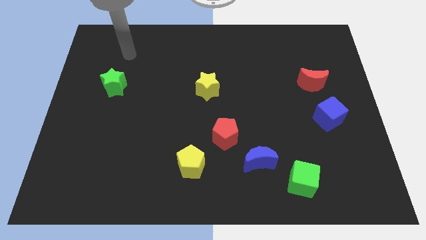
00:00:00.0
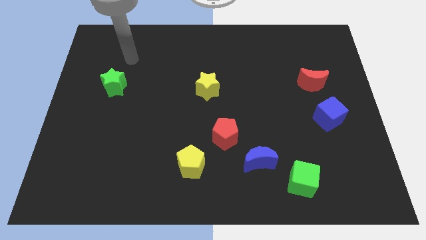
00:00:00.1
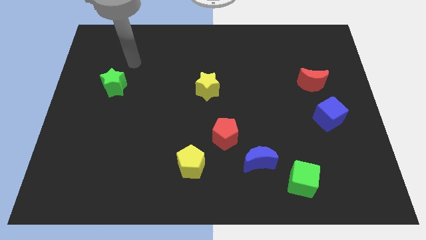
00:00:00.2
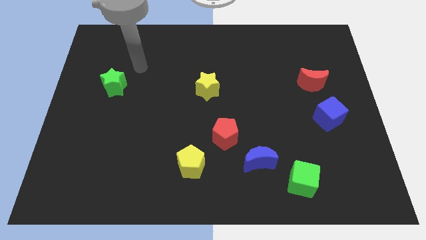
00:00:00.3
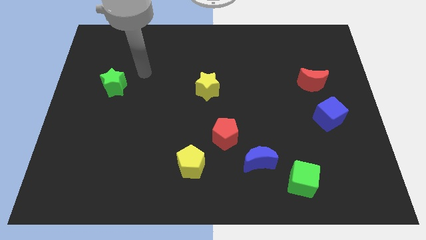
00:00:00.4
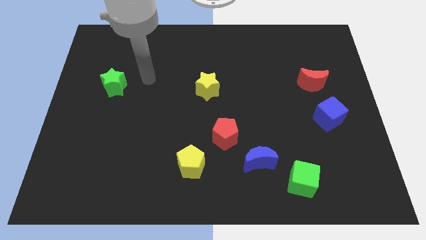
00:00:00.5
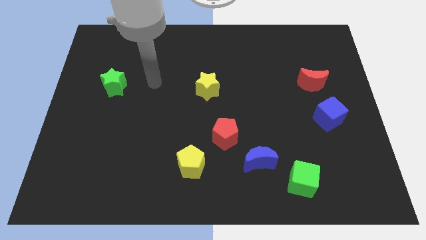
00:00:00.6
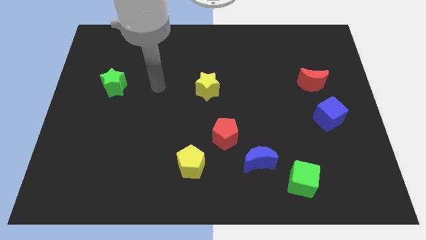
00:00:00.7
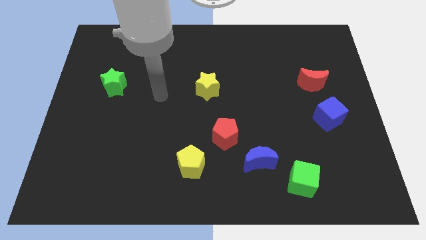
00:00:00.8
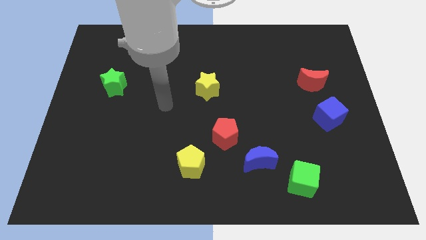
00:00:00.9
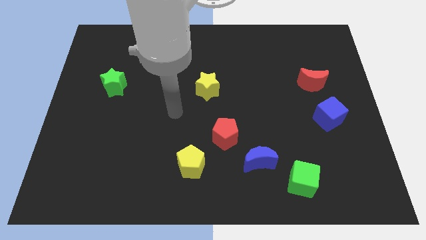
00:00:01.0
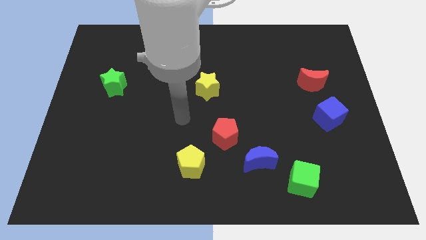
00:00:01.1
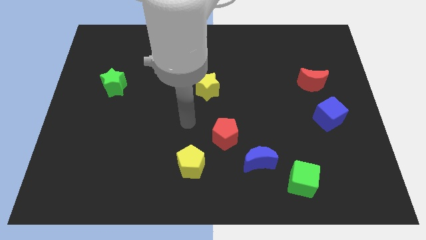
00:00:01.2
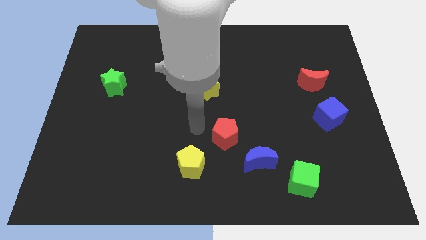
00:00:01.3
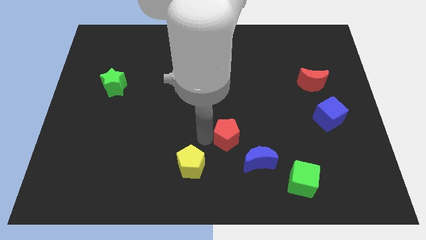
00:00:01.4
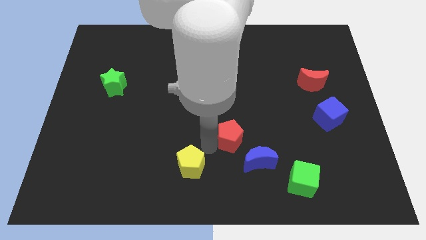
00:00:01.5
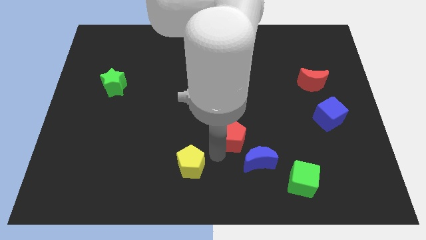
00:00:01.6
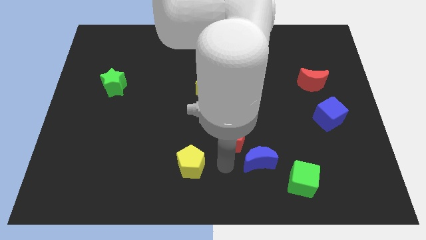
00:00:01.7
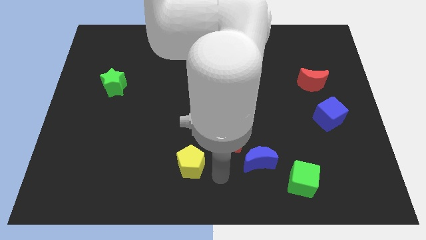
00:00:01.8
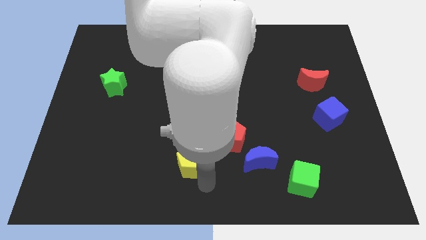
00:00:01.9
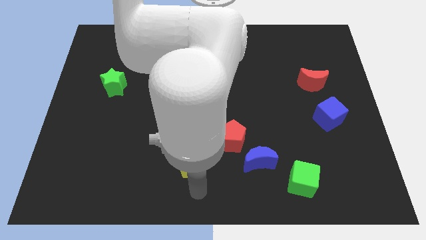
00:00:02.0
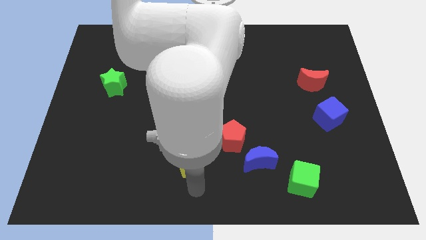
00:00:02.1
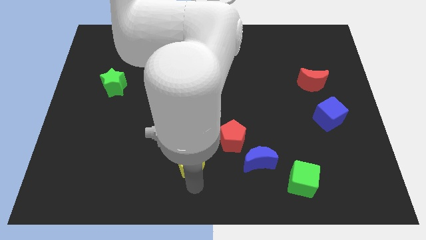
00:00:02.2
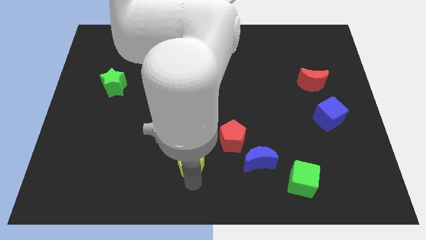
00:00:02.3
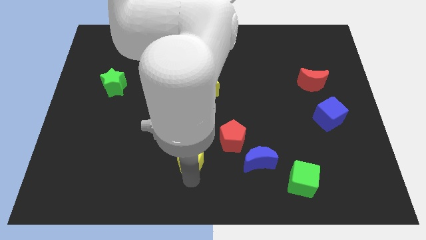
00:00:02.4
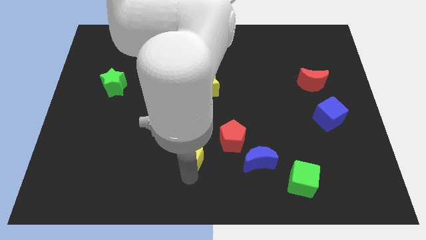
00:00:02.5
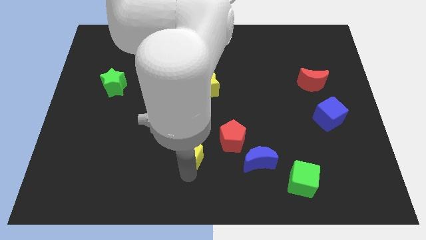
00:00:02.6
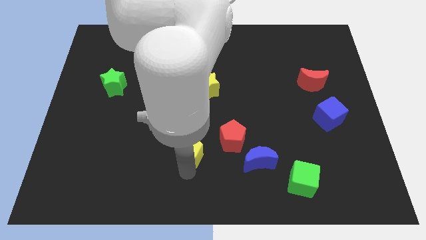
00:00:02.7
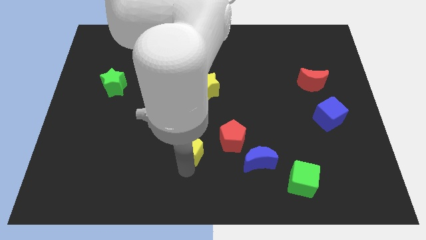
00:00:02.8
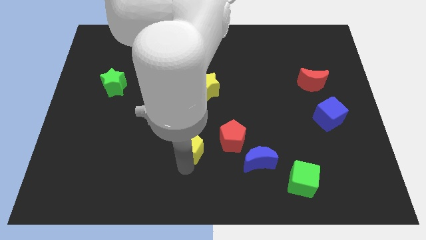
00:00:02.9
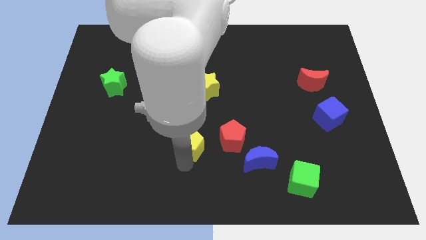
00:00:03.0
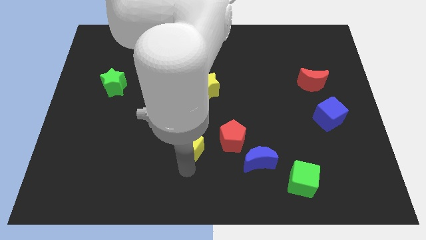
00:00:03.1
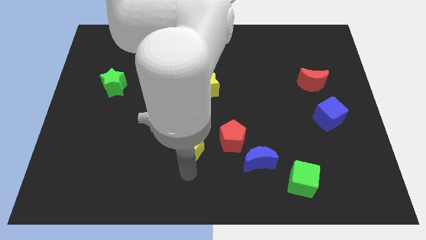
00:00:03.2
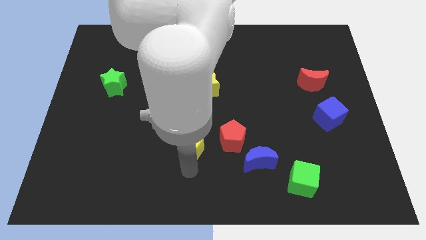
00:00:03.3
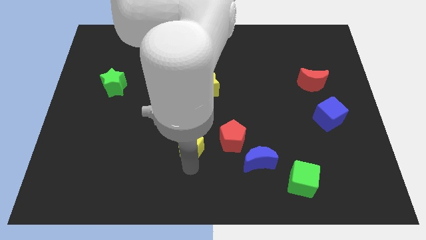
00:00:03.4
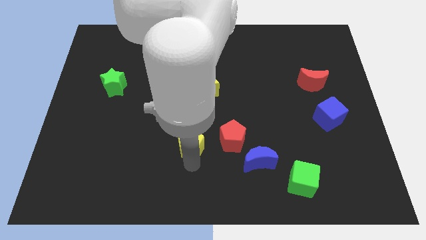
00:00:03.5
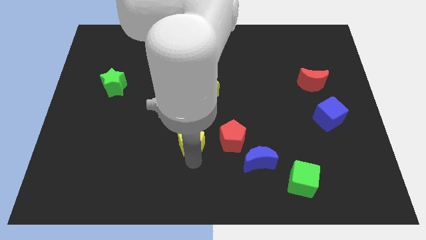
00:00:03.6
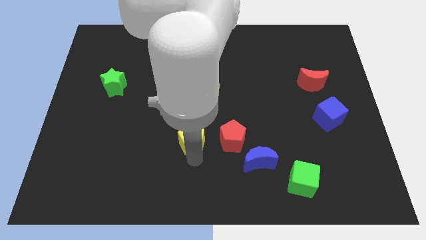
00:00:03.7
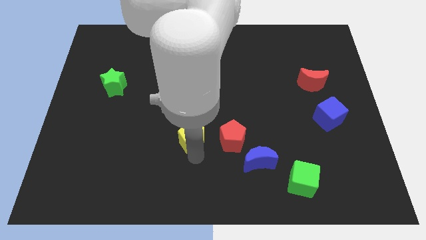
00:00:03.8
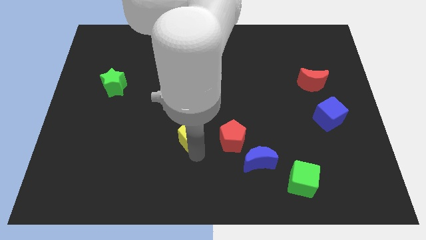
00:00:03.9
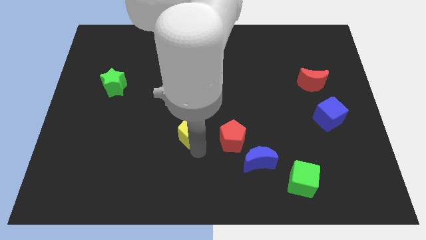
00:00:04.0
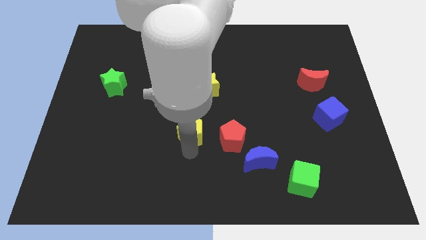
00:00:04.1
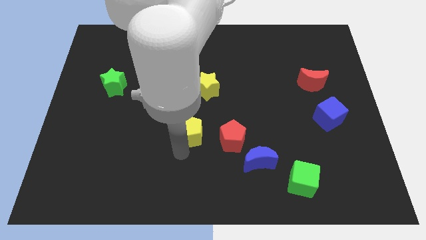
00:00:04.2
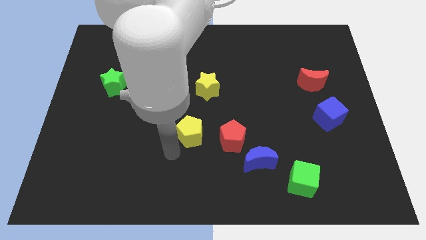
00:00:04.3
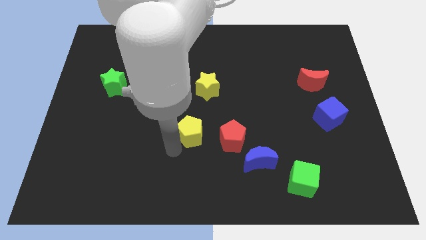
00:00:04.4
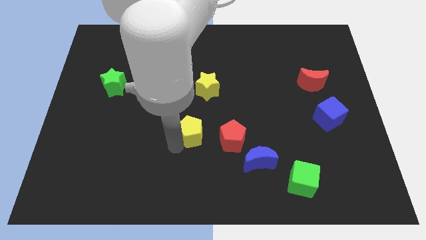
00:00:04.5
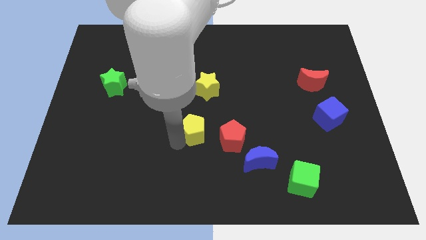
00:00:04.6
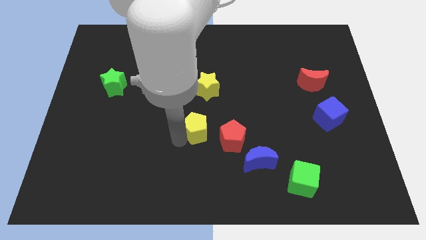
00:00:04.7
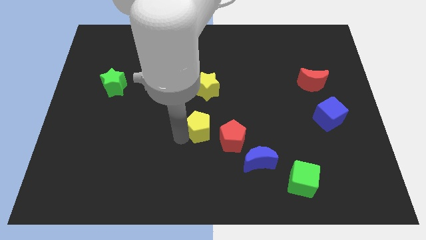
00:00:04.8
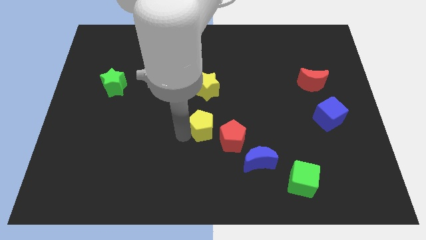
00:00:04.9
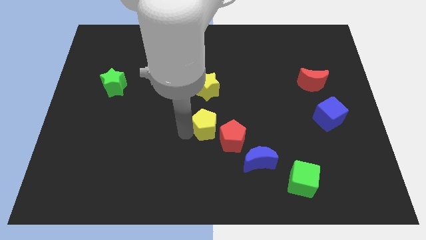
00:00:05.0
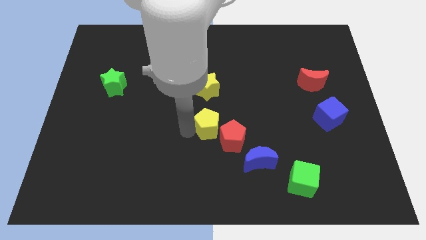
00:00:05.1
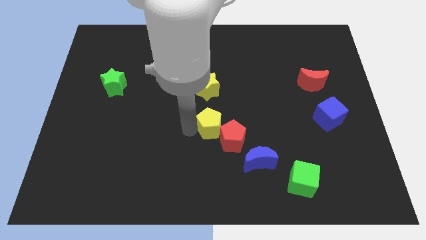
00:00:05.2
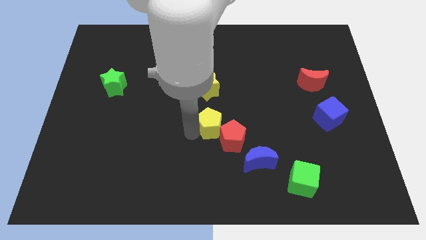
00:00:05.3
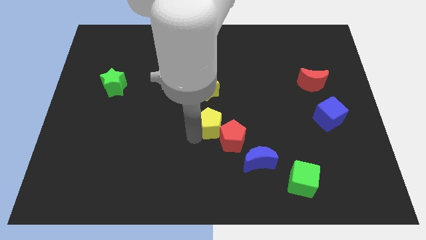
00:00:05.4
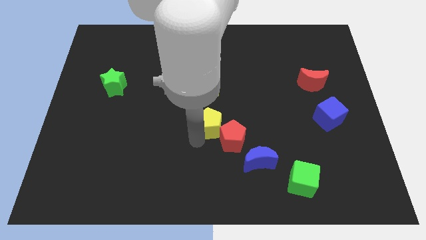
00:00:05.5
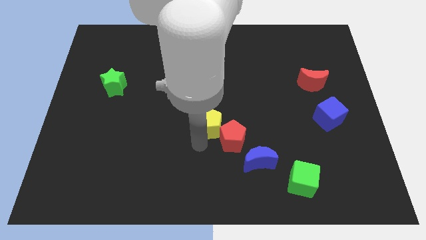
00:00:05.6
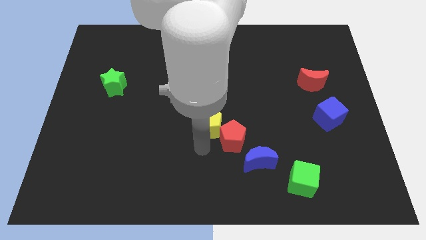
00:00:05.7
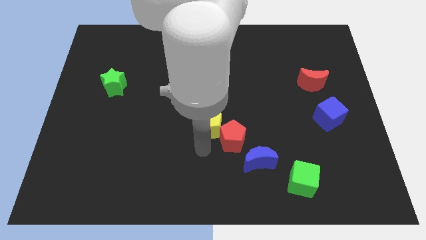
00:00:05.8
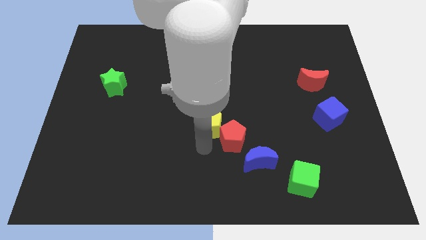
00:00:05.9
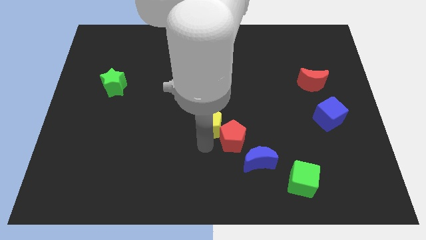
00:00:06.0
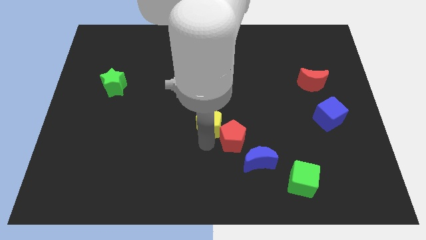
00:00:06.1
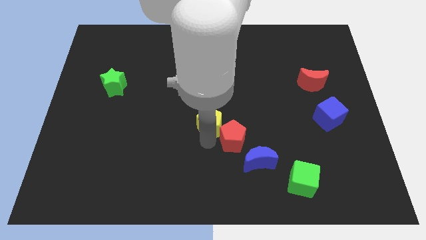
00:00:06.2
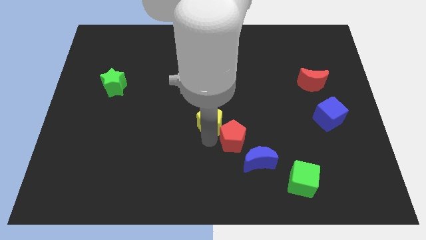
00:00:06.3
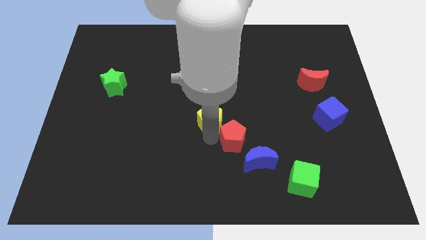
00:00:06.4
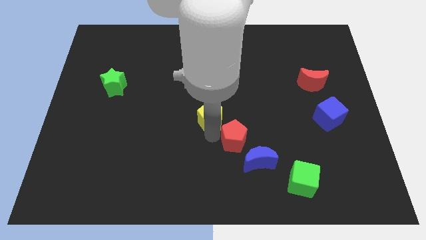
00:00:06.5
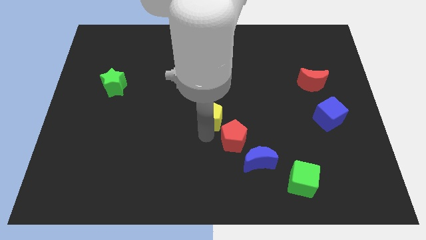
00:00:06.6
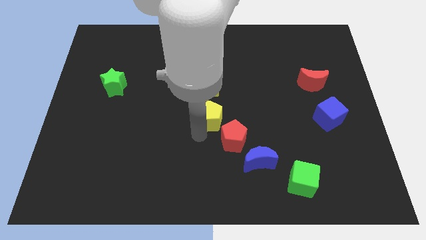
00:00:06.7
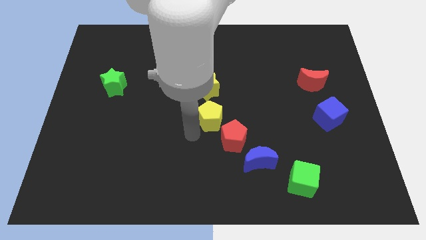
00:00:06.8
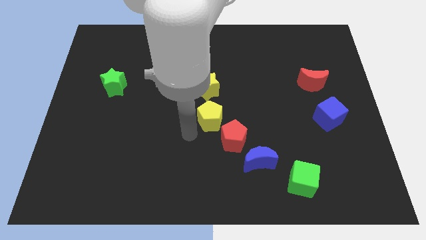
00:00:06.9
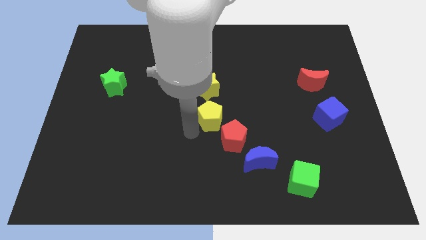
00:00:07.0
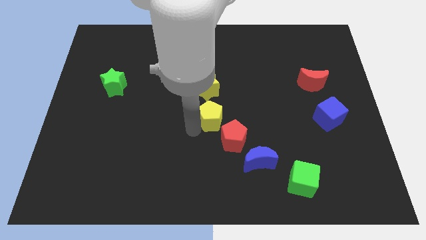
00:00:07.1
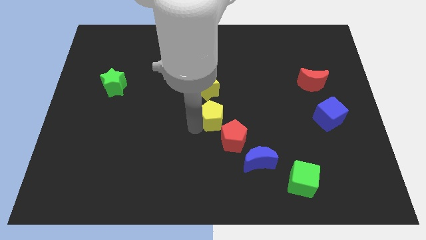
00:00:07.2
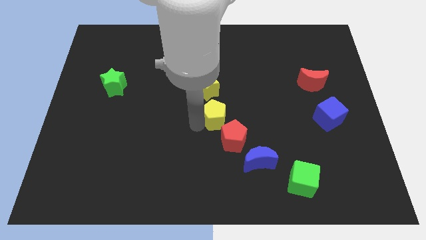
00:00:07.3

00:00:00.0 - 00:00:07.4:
put the yellow pentagon to the bottom right side of the yellow star
